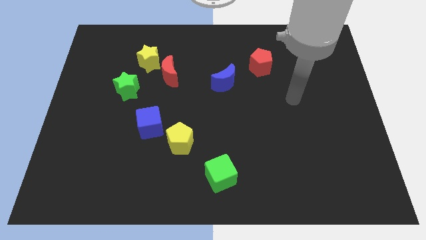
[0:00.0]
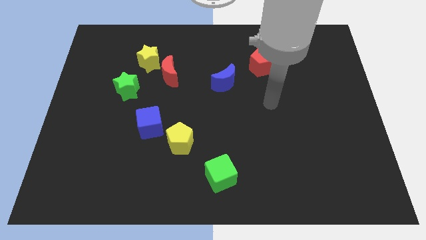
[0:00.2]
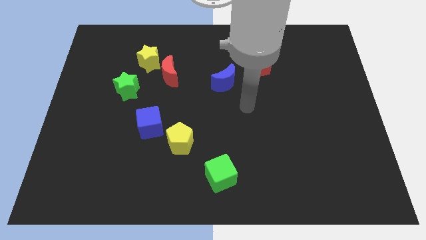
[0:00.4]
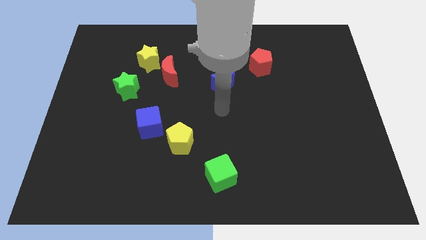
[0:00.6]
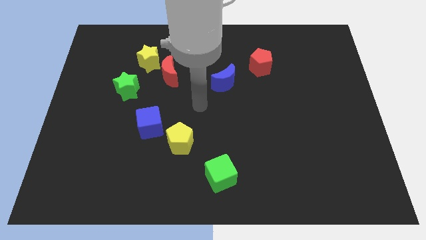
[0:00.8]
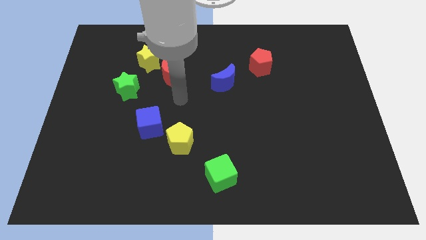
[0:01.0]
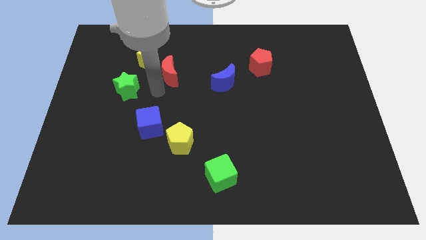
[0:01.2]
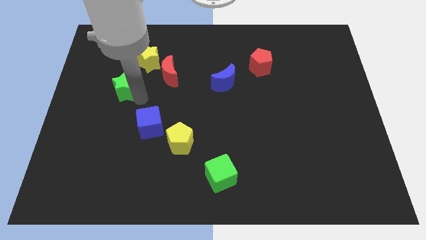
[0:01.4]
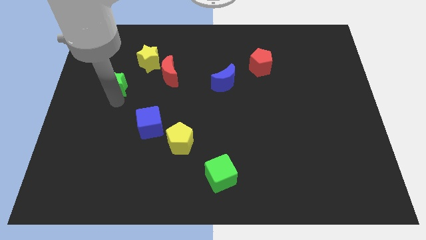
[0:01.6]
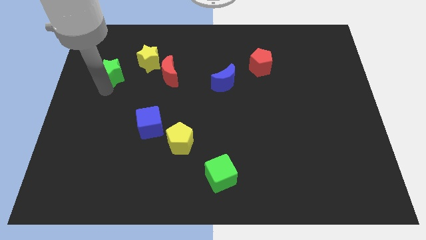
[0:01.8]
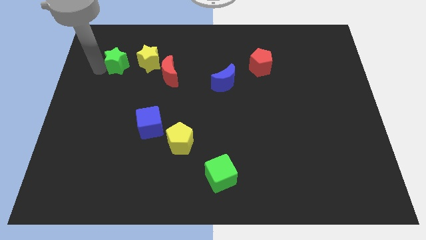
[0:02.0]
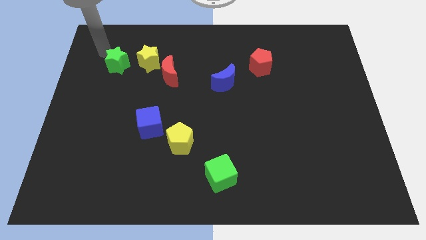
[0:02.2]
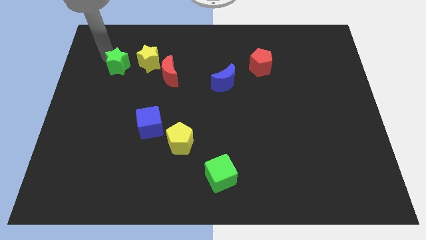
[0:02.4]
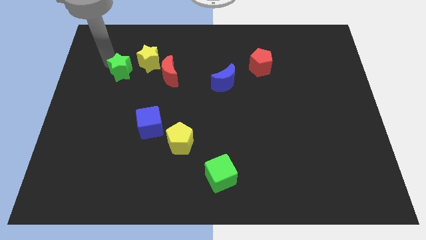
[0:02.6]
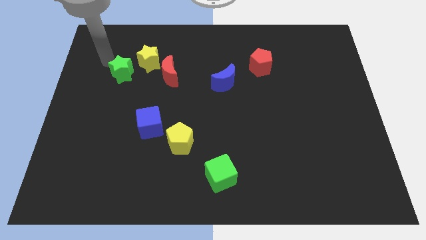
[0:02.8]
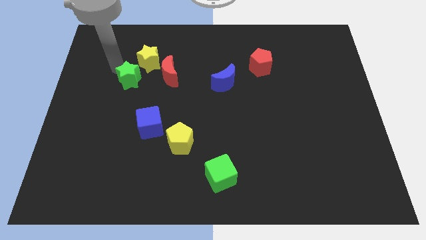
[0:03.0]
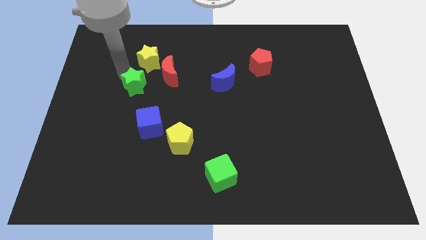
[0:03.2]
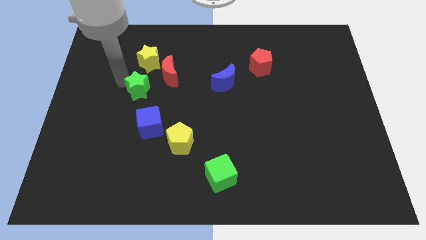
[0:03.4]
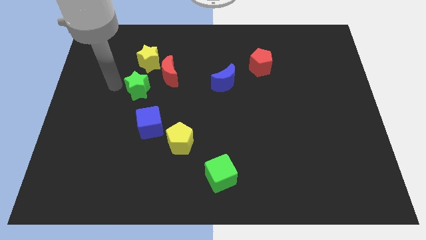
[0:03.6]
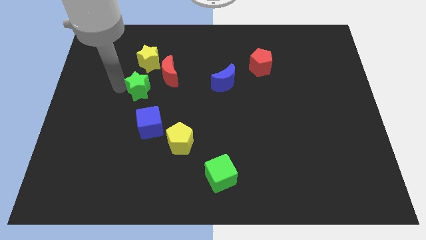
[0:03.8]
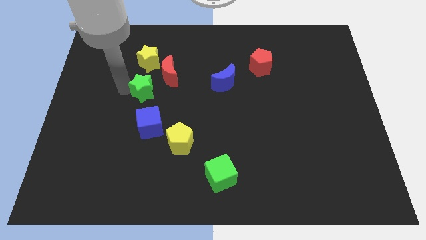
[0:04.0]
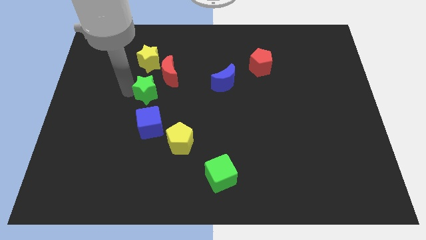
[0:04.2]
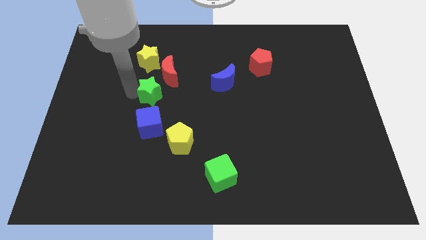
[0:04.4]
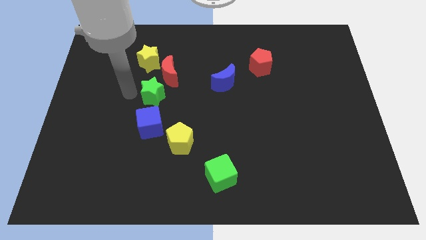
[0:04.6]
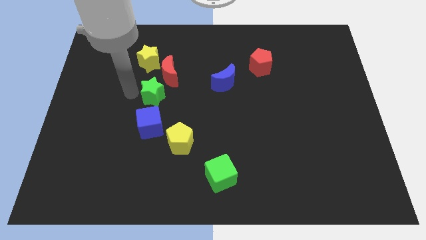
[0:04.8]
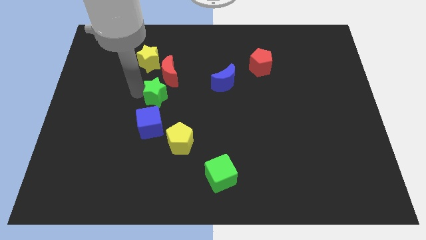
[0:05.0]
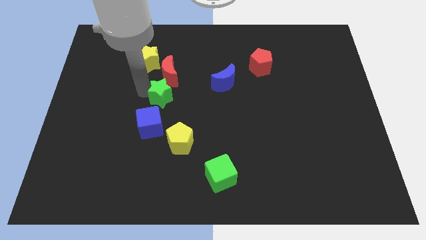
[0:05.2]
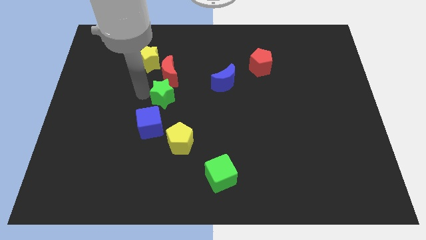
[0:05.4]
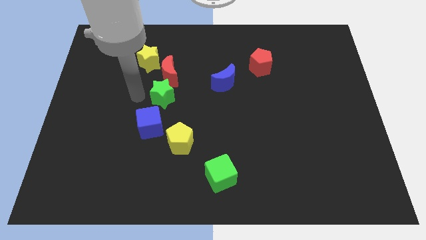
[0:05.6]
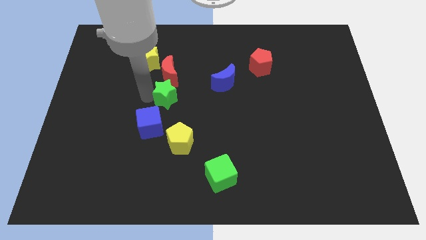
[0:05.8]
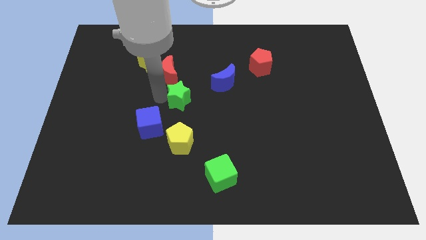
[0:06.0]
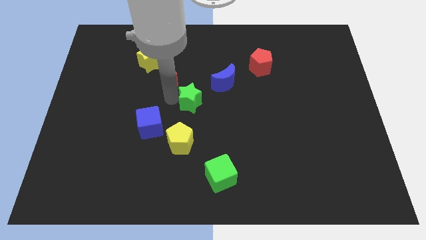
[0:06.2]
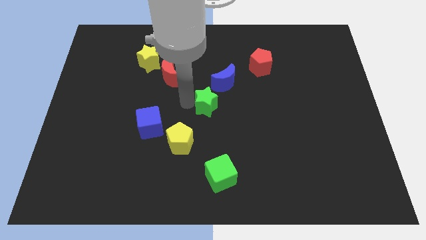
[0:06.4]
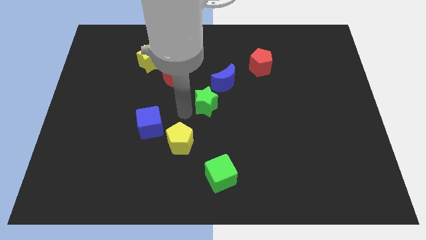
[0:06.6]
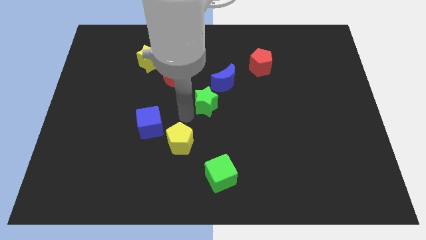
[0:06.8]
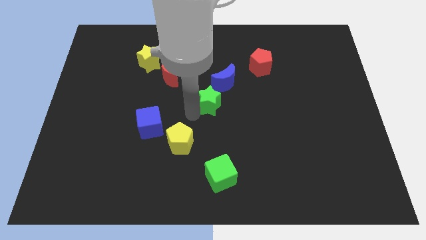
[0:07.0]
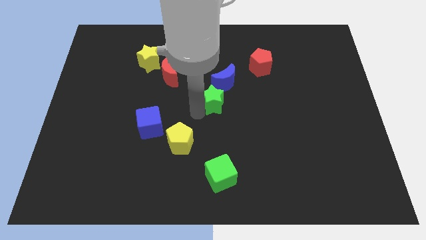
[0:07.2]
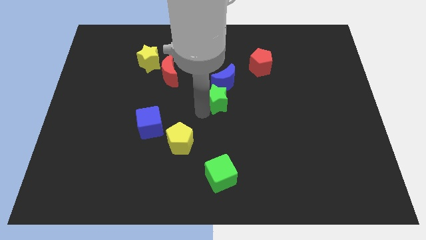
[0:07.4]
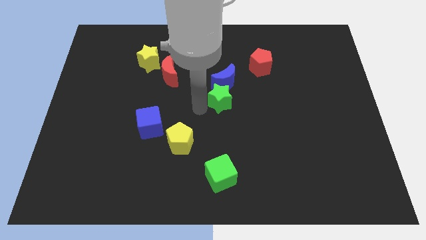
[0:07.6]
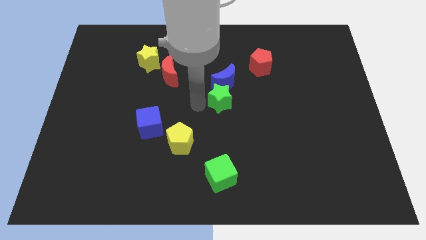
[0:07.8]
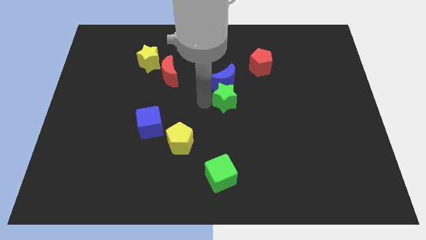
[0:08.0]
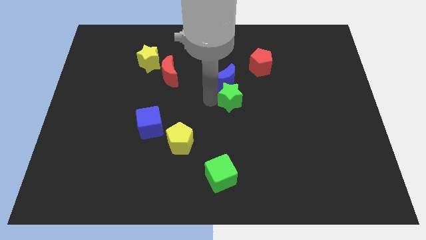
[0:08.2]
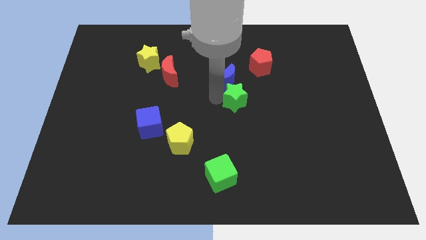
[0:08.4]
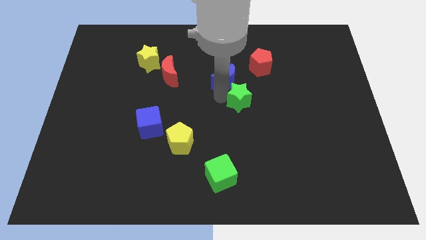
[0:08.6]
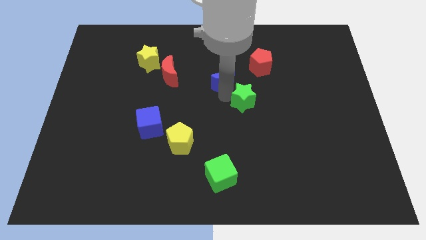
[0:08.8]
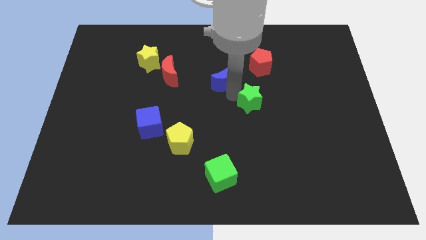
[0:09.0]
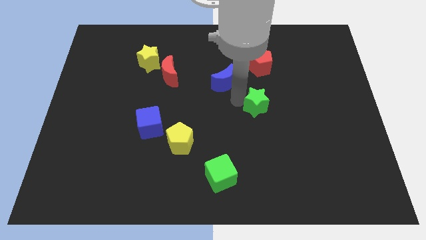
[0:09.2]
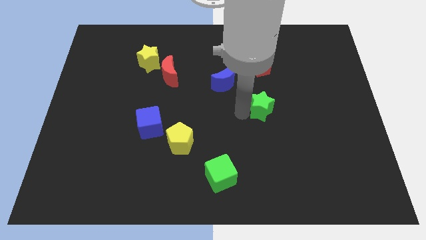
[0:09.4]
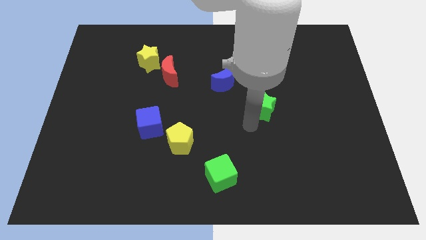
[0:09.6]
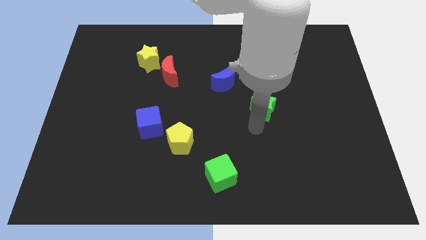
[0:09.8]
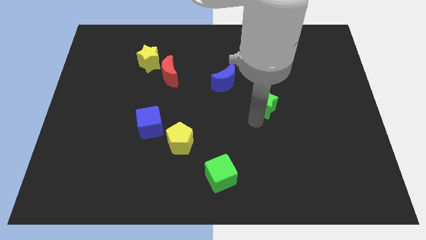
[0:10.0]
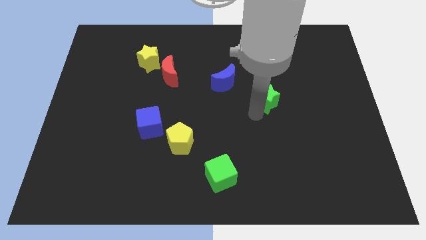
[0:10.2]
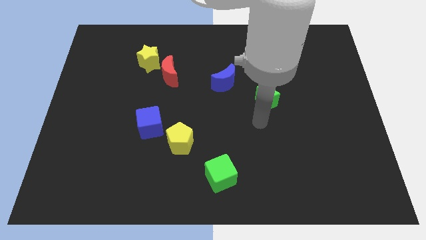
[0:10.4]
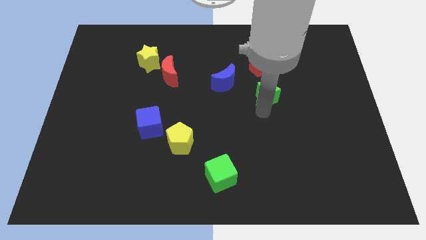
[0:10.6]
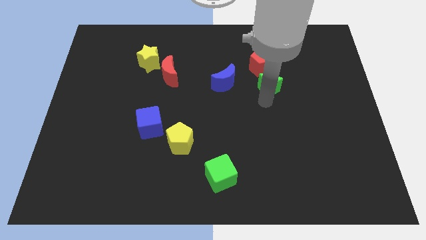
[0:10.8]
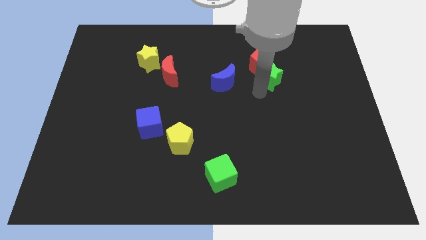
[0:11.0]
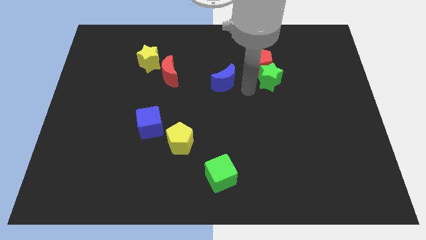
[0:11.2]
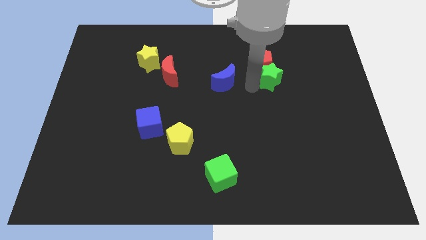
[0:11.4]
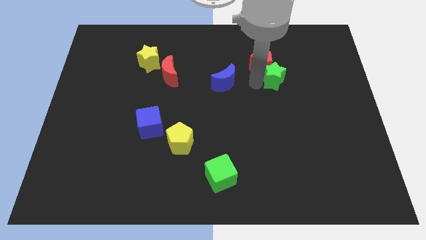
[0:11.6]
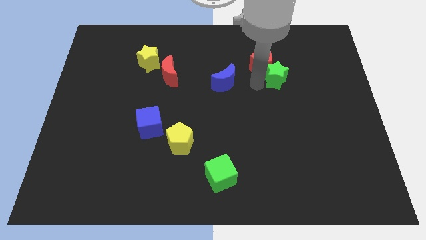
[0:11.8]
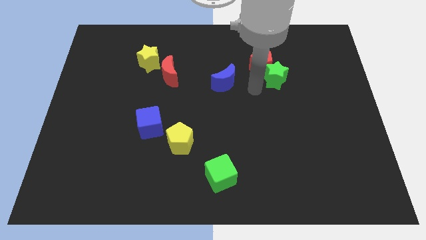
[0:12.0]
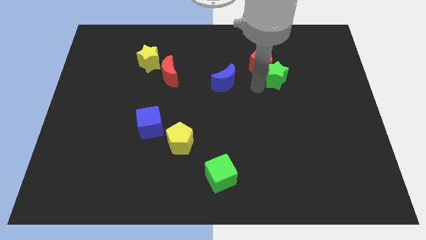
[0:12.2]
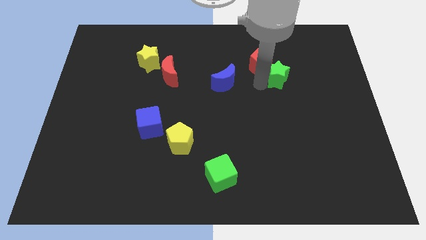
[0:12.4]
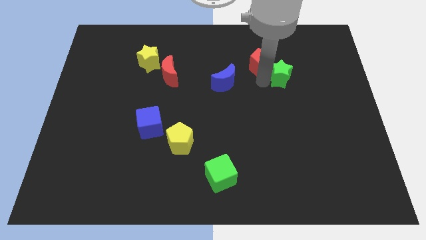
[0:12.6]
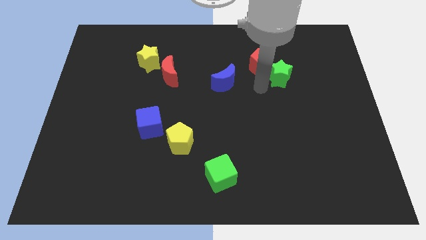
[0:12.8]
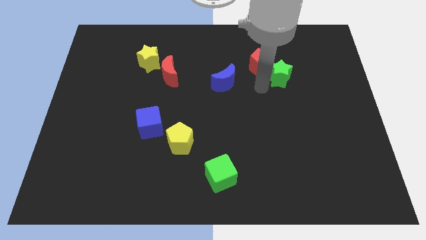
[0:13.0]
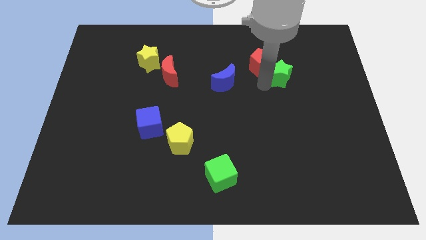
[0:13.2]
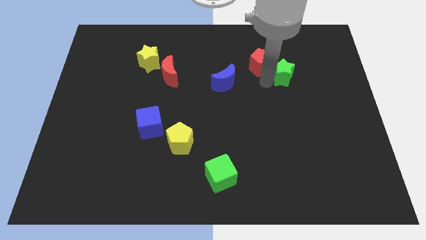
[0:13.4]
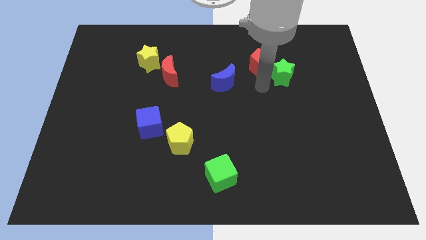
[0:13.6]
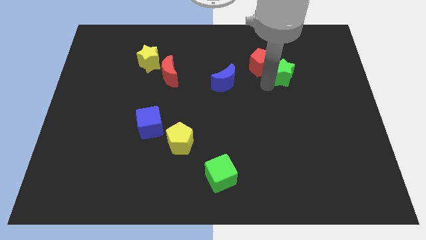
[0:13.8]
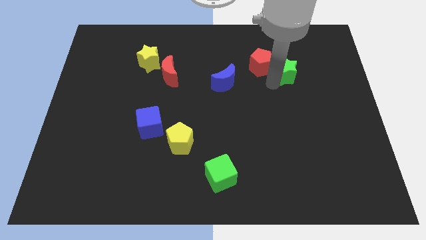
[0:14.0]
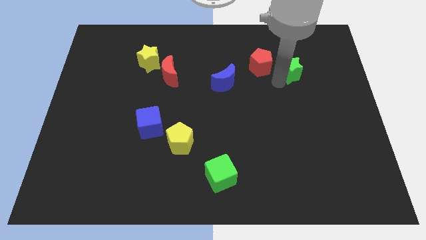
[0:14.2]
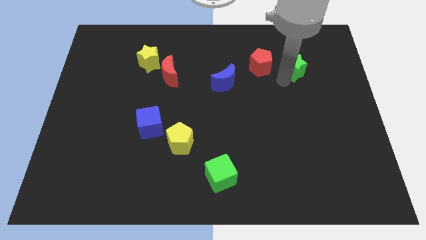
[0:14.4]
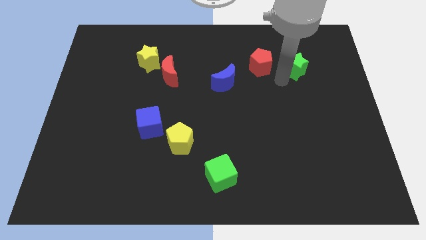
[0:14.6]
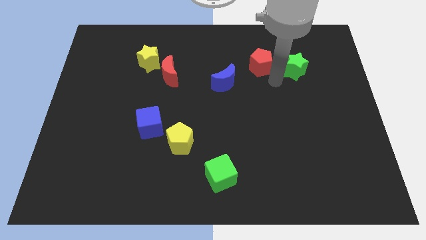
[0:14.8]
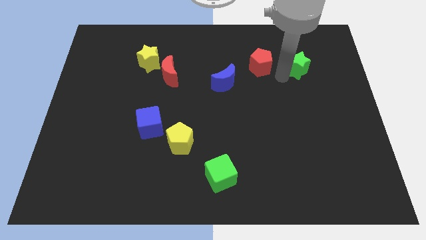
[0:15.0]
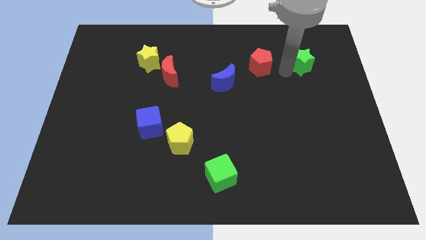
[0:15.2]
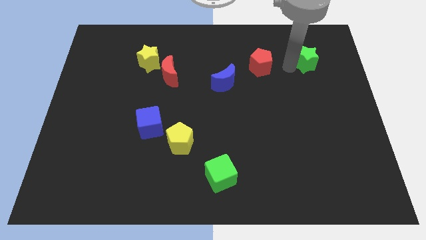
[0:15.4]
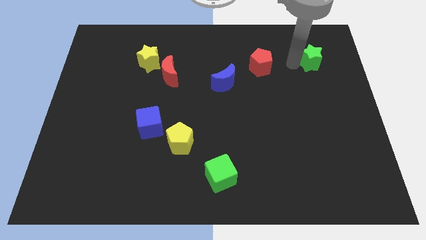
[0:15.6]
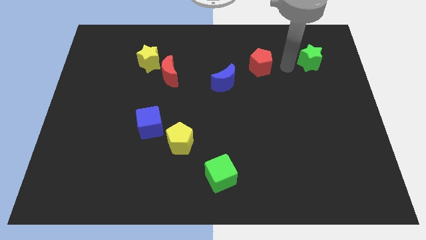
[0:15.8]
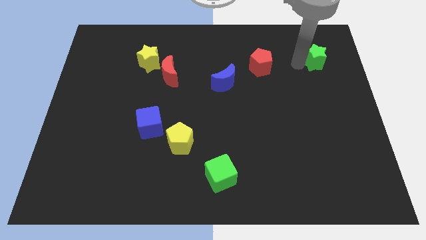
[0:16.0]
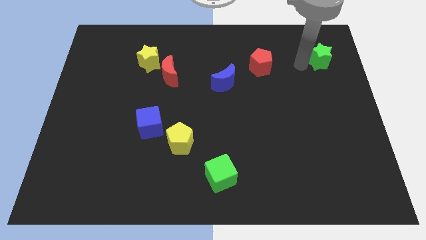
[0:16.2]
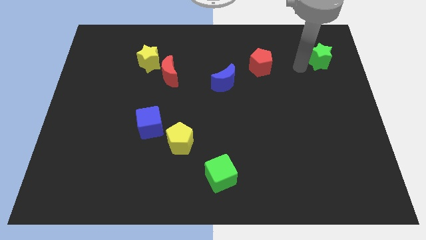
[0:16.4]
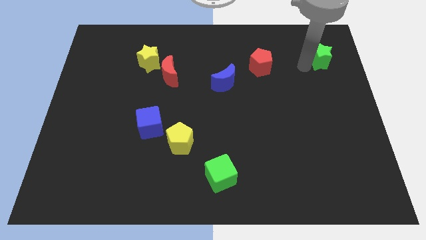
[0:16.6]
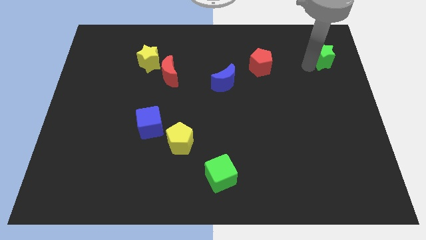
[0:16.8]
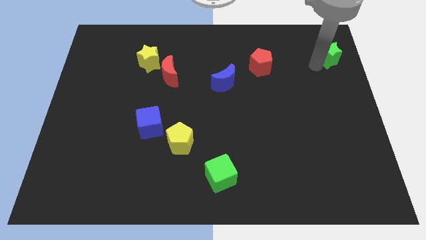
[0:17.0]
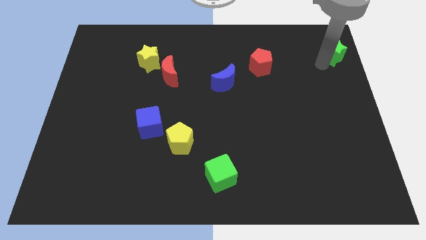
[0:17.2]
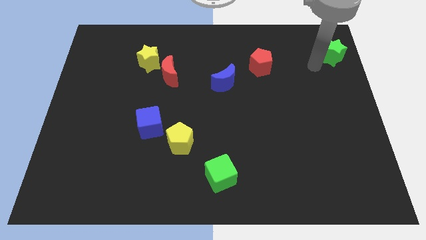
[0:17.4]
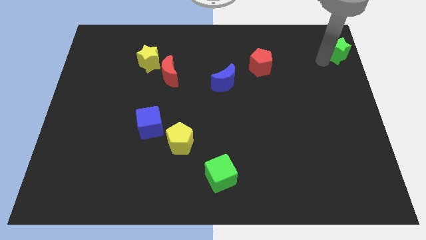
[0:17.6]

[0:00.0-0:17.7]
push the green star to the upper right corner
